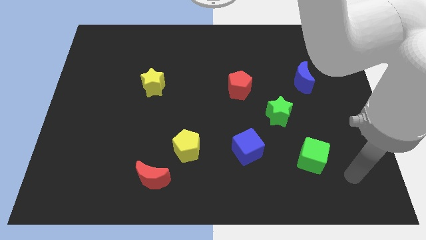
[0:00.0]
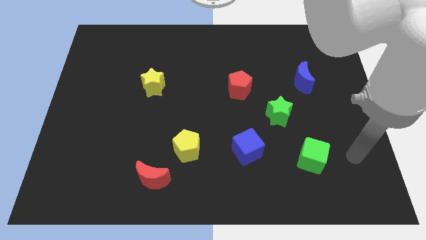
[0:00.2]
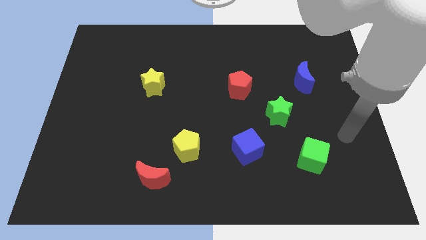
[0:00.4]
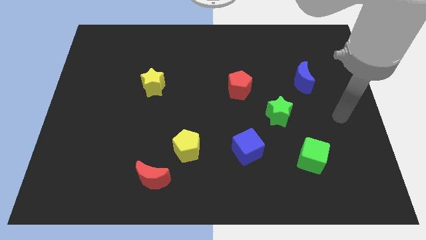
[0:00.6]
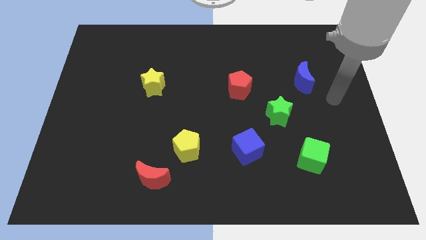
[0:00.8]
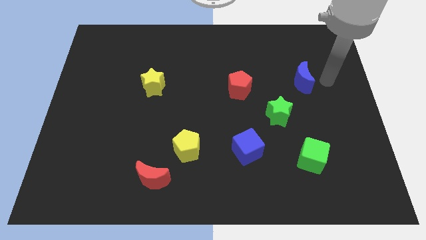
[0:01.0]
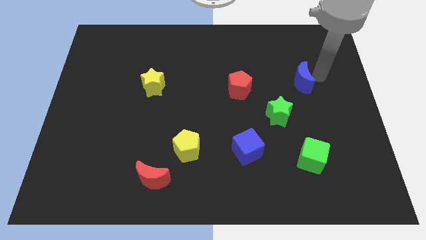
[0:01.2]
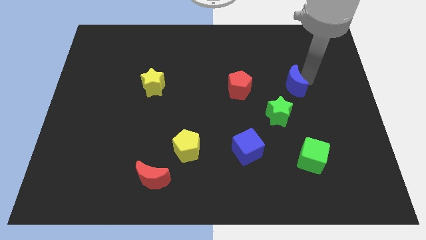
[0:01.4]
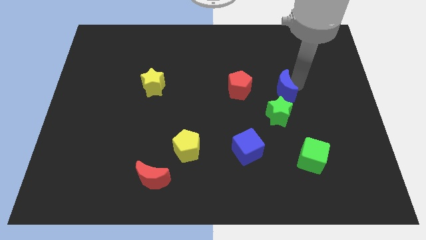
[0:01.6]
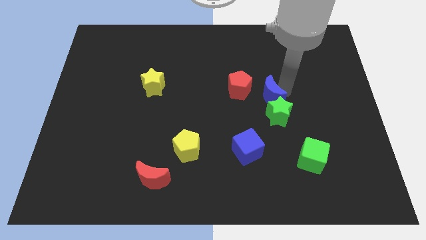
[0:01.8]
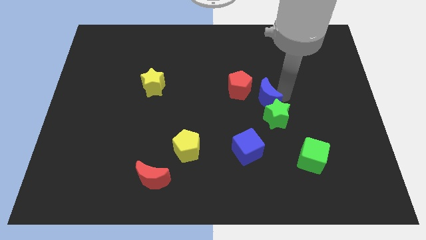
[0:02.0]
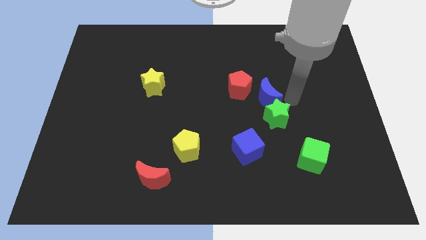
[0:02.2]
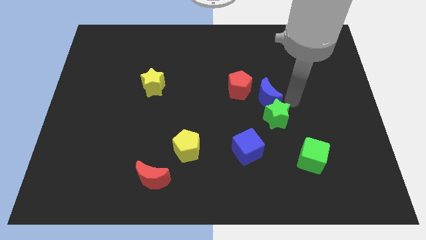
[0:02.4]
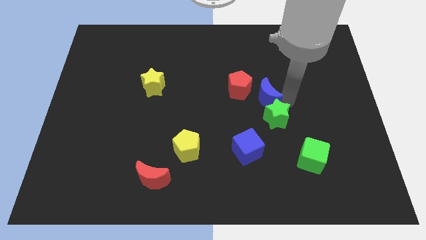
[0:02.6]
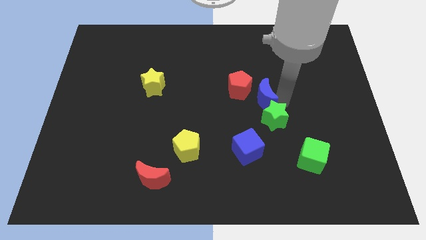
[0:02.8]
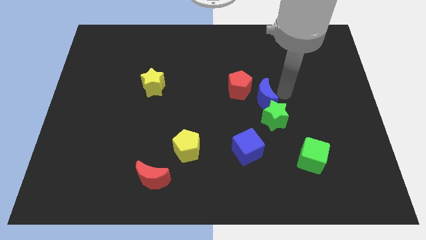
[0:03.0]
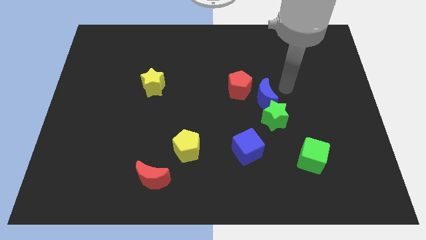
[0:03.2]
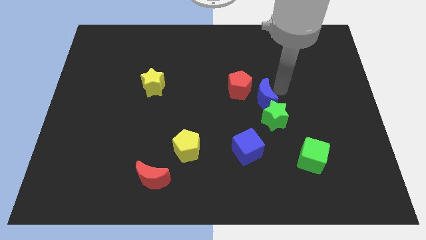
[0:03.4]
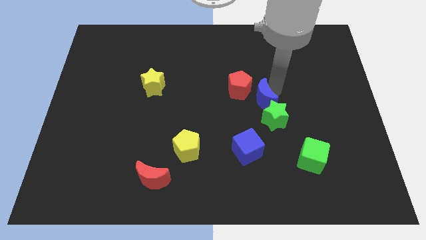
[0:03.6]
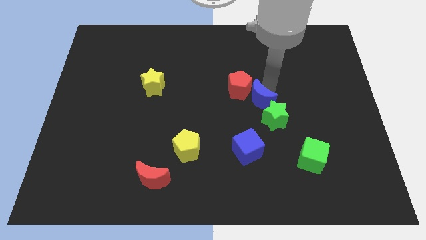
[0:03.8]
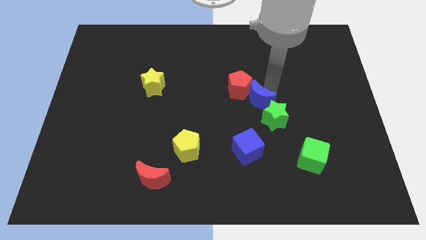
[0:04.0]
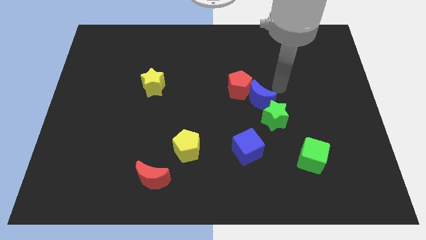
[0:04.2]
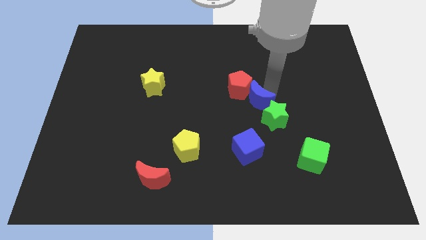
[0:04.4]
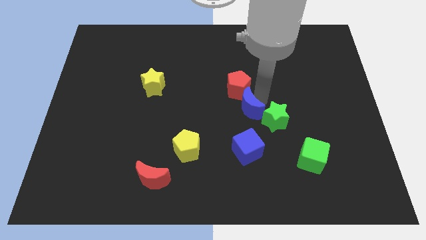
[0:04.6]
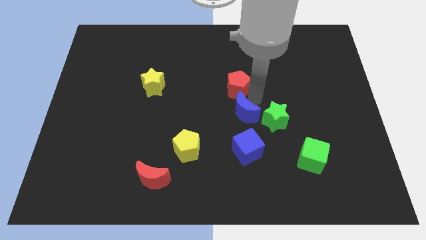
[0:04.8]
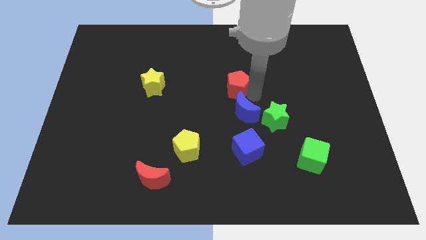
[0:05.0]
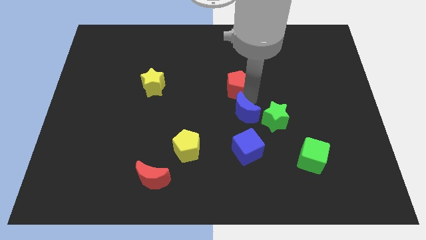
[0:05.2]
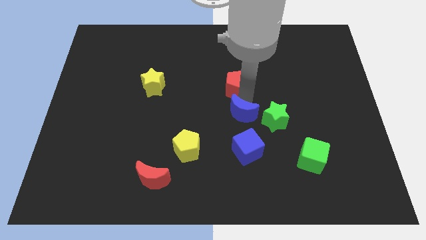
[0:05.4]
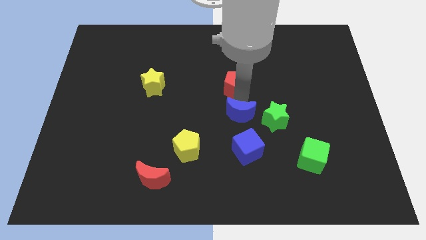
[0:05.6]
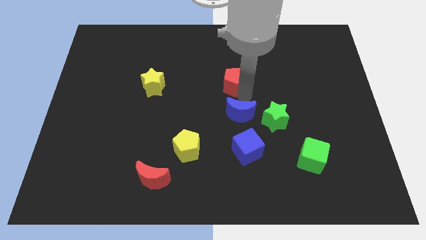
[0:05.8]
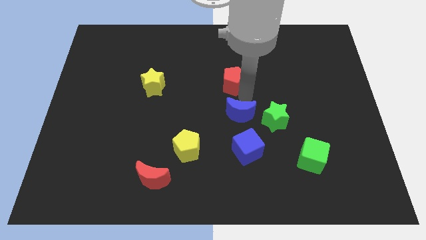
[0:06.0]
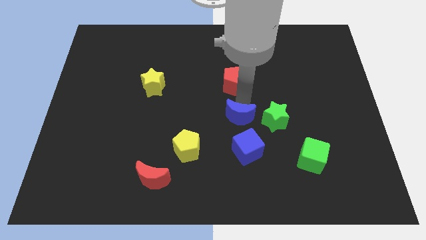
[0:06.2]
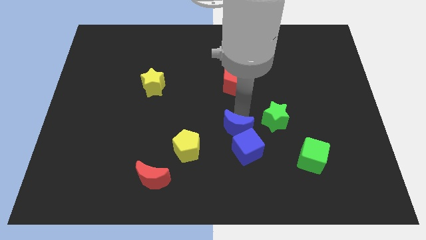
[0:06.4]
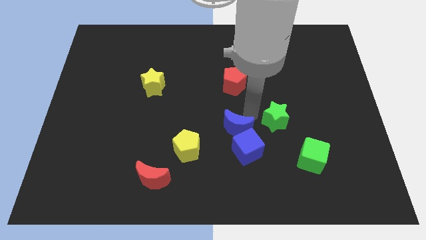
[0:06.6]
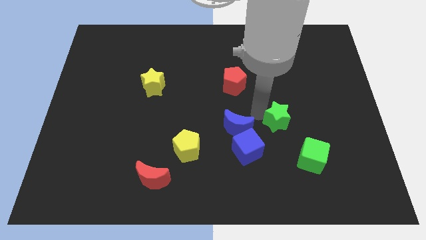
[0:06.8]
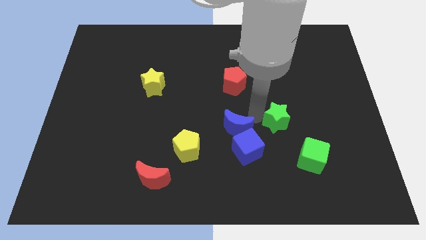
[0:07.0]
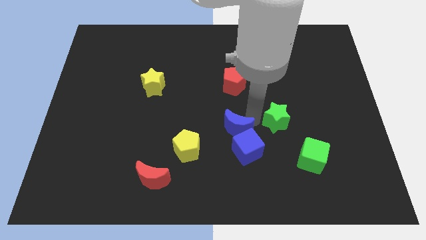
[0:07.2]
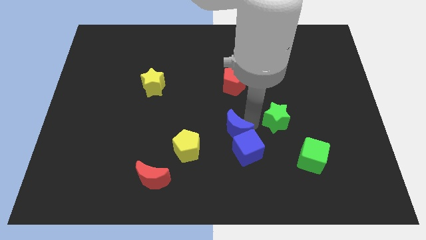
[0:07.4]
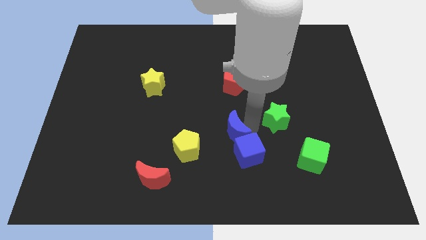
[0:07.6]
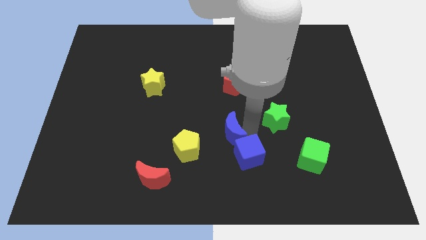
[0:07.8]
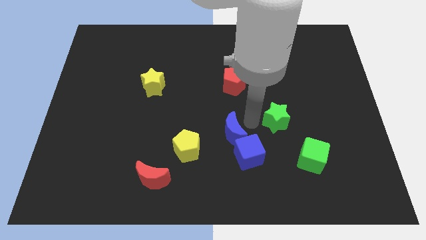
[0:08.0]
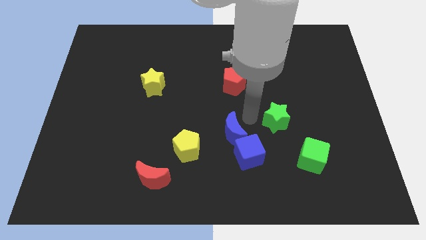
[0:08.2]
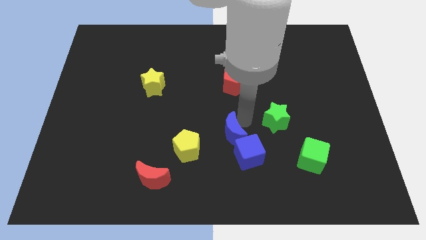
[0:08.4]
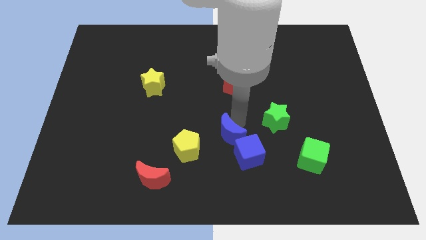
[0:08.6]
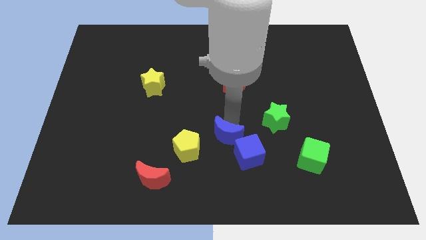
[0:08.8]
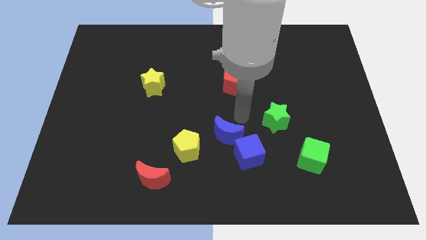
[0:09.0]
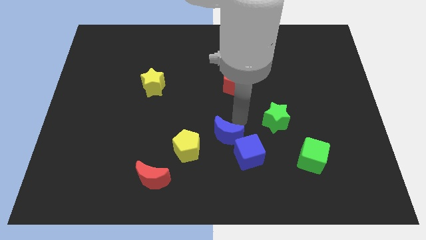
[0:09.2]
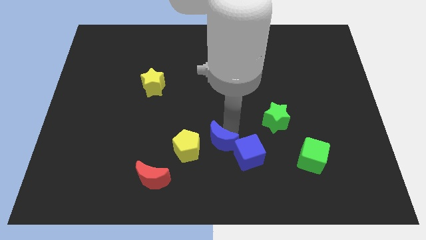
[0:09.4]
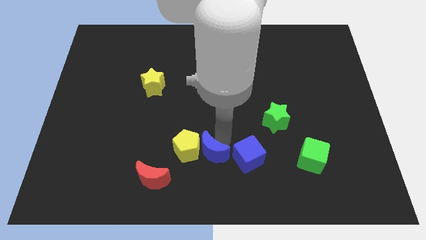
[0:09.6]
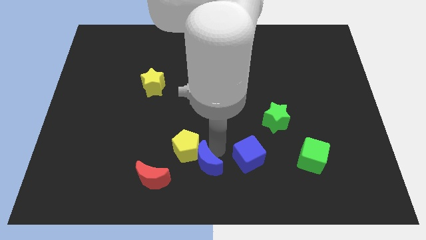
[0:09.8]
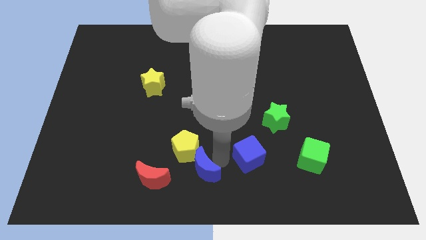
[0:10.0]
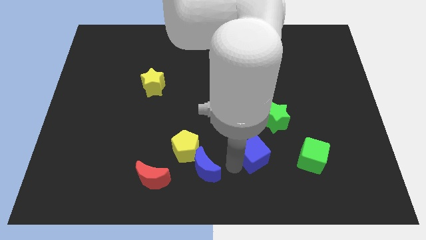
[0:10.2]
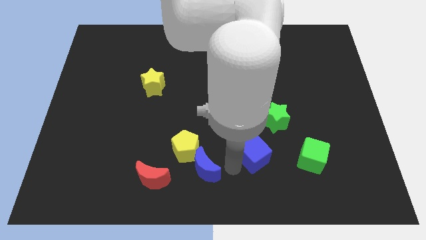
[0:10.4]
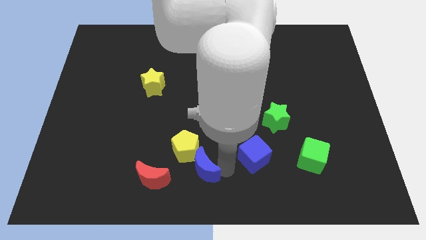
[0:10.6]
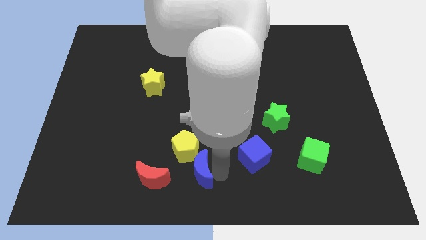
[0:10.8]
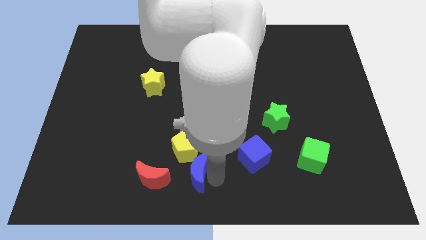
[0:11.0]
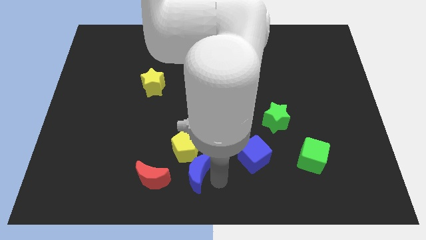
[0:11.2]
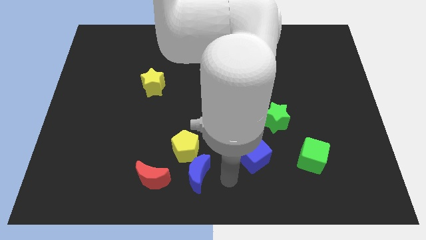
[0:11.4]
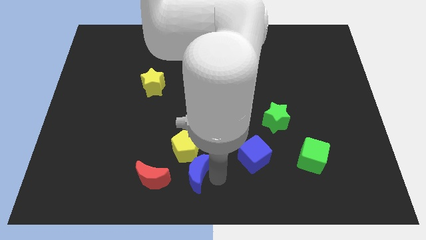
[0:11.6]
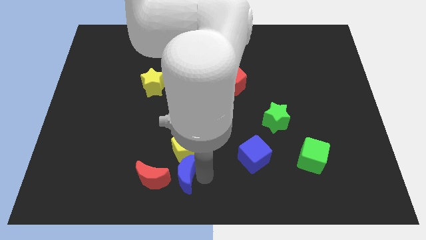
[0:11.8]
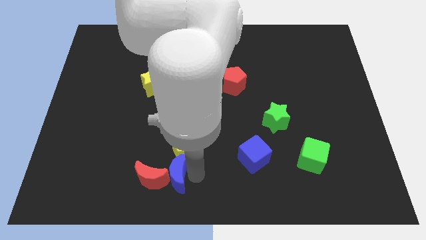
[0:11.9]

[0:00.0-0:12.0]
slide the blue moon next to the red moon

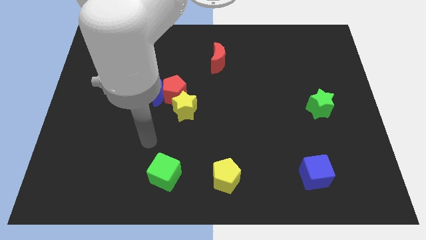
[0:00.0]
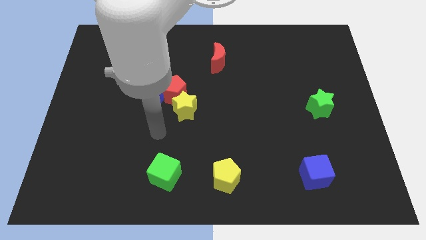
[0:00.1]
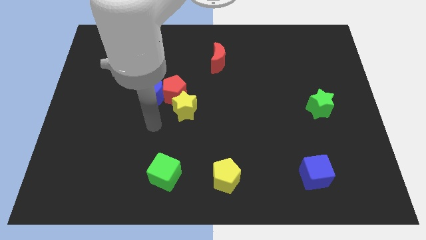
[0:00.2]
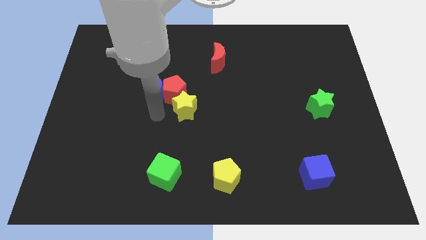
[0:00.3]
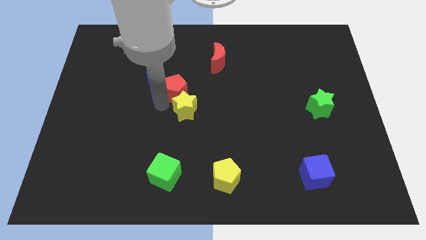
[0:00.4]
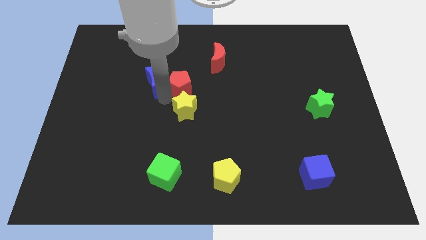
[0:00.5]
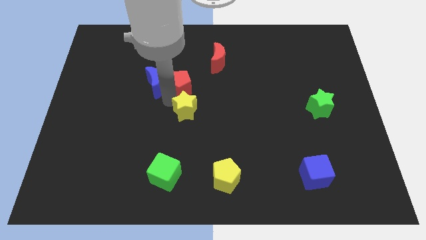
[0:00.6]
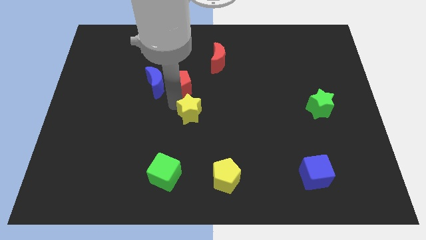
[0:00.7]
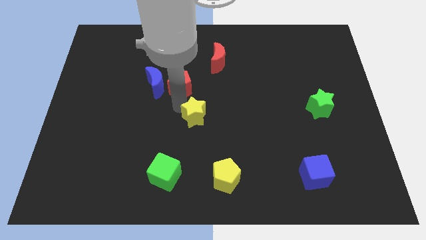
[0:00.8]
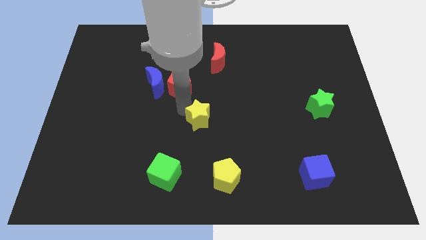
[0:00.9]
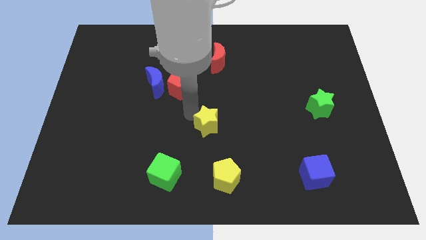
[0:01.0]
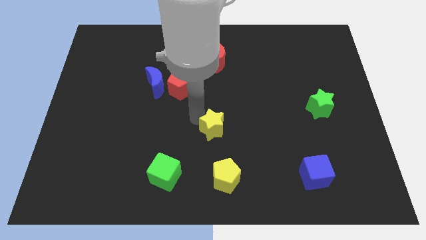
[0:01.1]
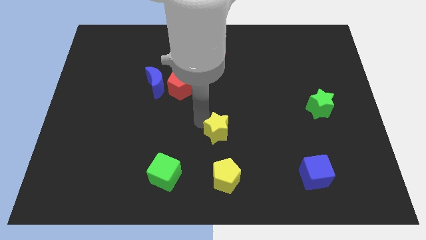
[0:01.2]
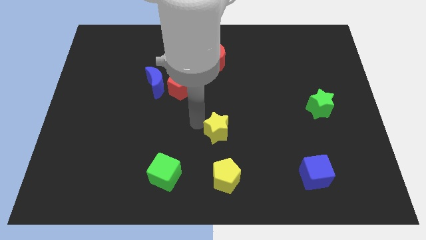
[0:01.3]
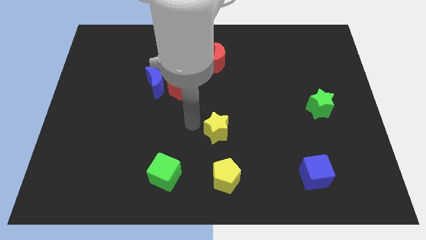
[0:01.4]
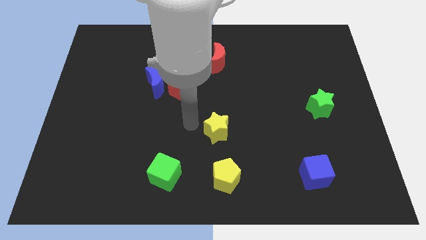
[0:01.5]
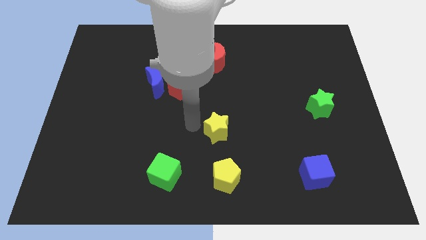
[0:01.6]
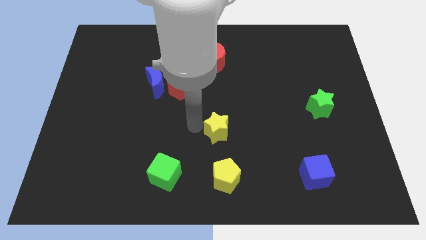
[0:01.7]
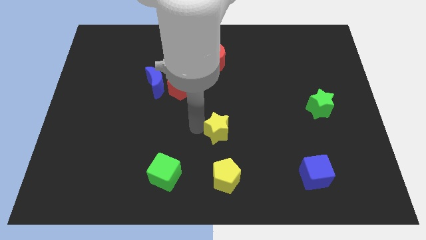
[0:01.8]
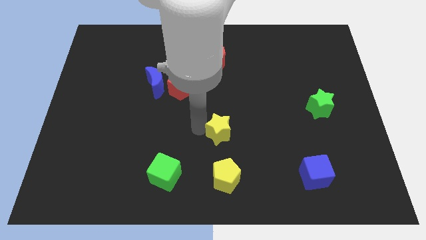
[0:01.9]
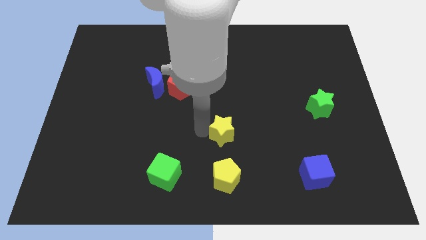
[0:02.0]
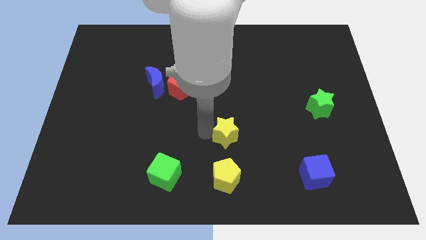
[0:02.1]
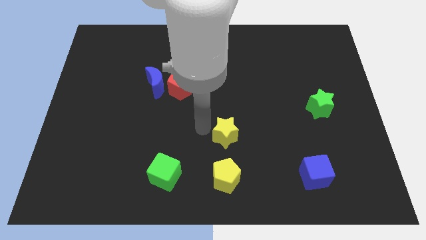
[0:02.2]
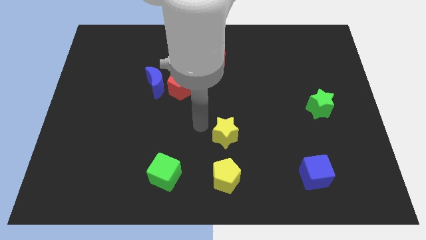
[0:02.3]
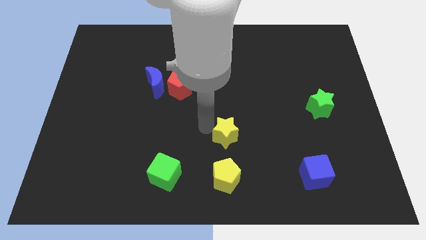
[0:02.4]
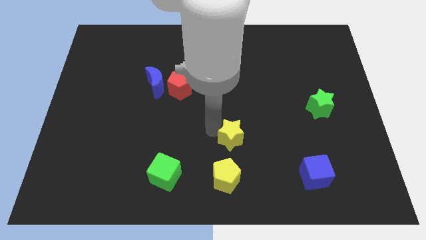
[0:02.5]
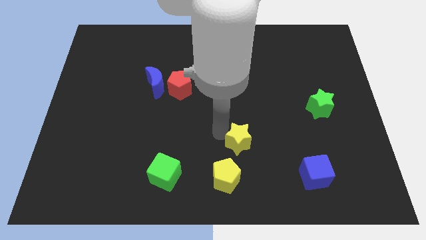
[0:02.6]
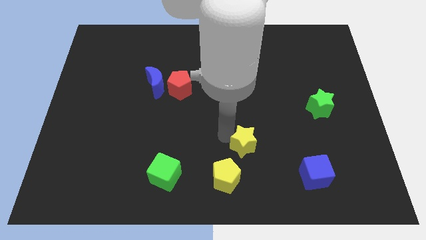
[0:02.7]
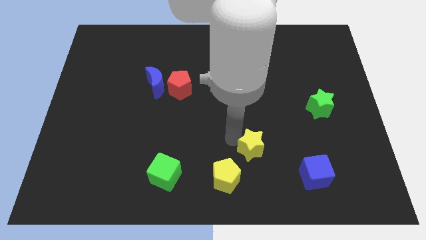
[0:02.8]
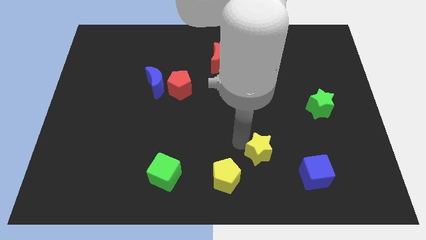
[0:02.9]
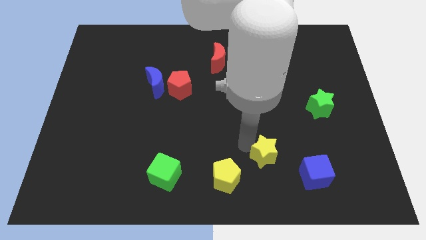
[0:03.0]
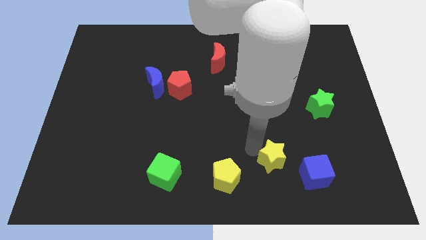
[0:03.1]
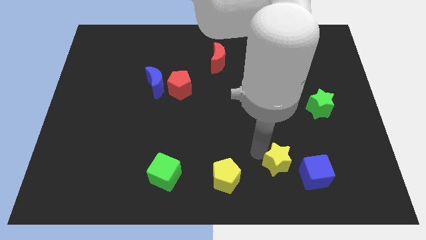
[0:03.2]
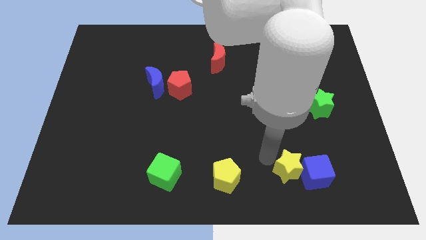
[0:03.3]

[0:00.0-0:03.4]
slide the yellow star close to the blue cube
